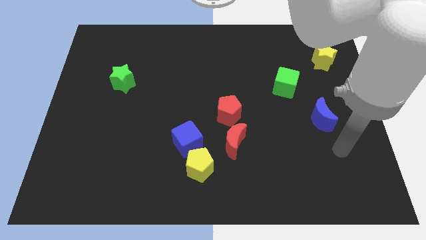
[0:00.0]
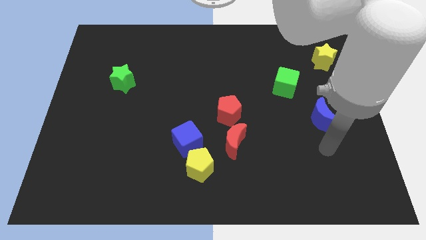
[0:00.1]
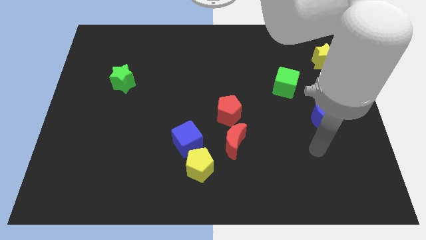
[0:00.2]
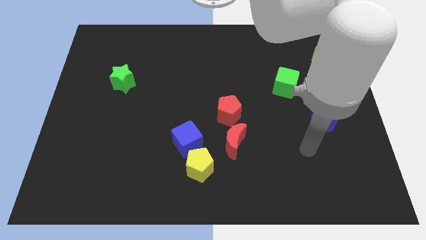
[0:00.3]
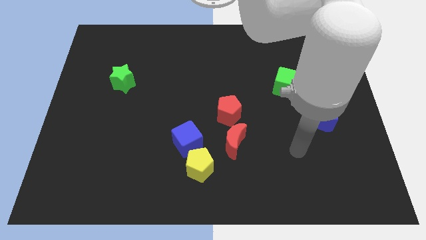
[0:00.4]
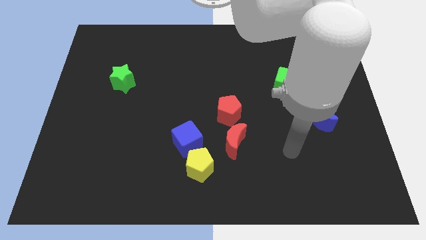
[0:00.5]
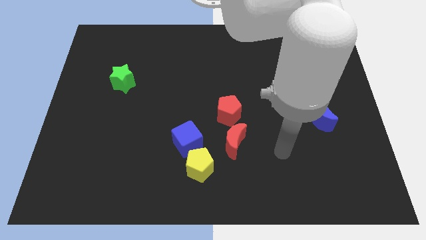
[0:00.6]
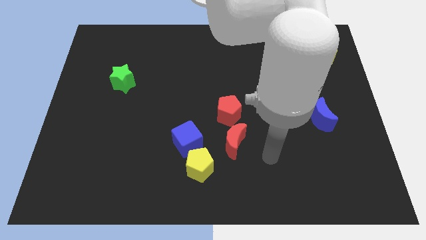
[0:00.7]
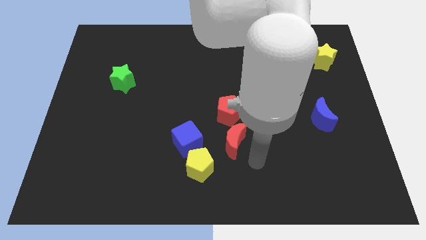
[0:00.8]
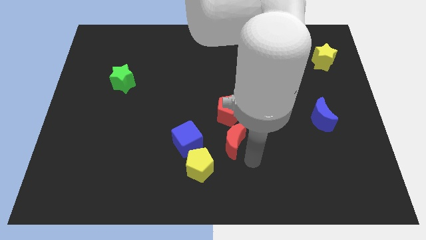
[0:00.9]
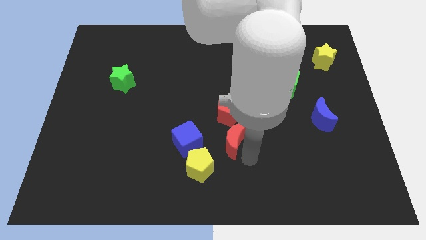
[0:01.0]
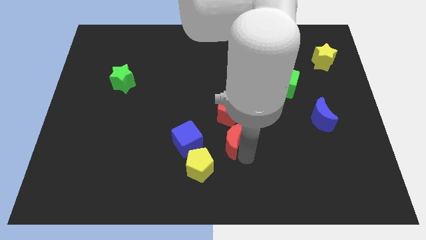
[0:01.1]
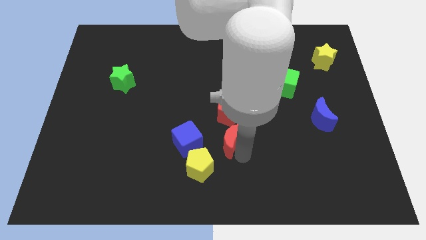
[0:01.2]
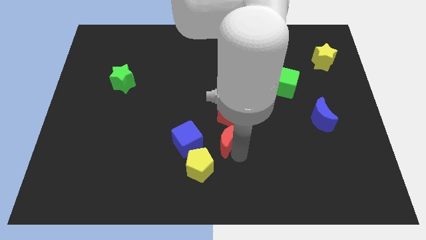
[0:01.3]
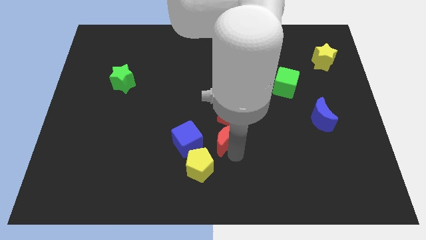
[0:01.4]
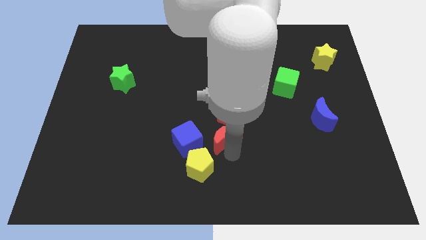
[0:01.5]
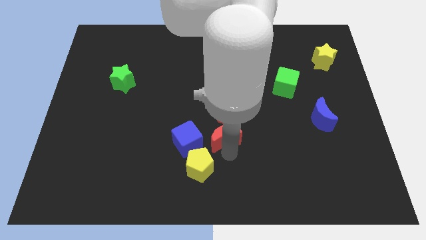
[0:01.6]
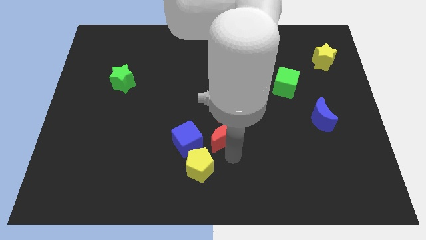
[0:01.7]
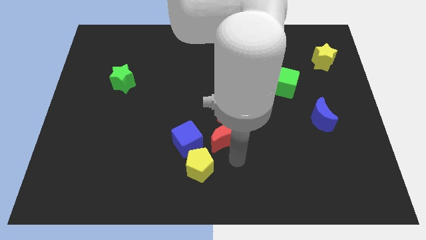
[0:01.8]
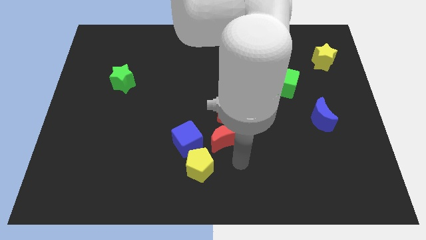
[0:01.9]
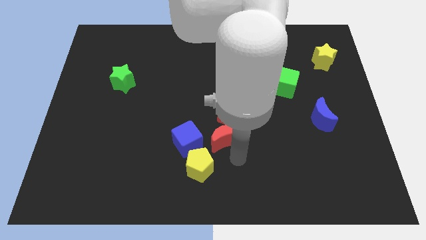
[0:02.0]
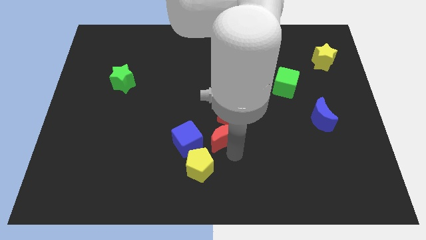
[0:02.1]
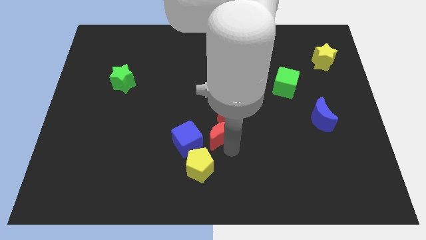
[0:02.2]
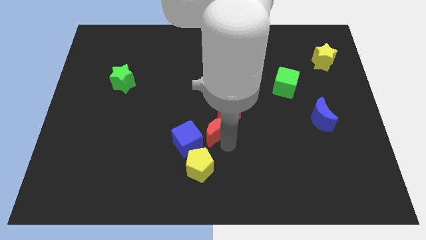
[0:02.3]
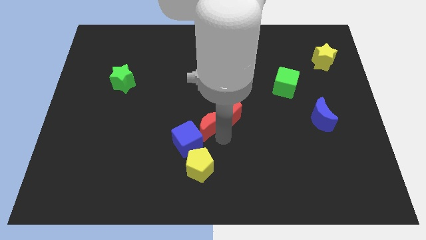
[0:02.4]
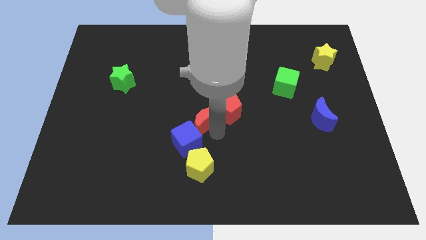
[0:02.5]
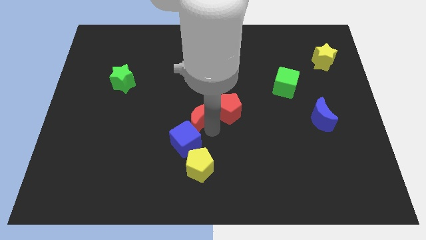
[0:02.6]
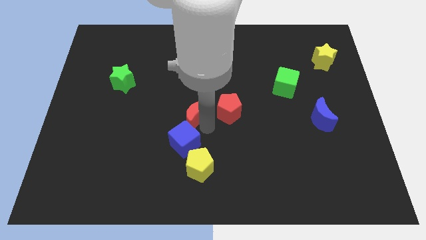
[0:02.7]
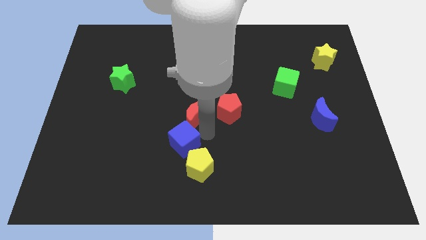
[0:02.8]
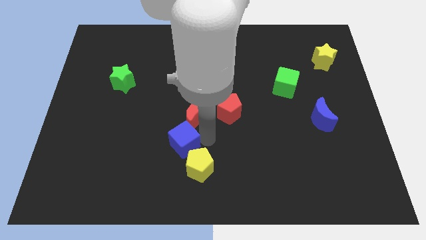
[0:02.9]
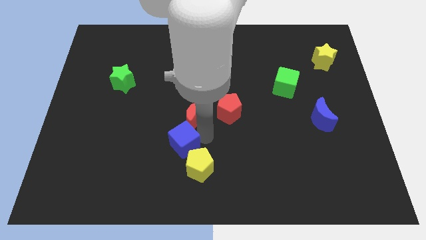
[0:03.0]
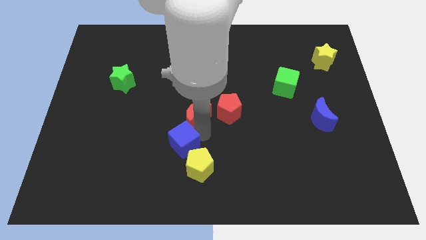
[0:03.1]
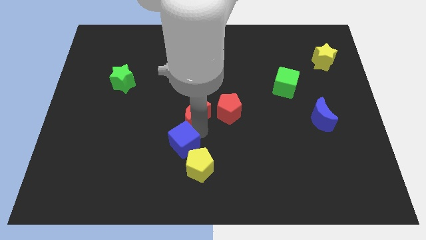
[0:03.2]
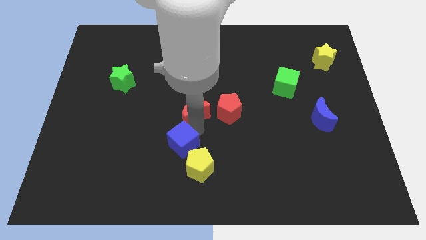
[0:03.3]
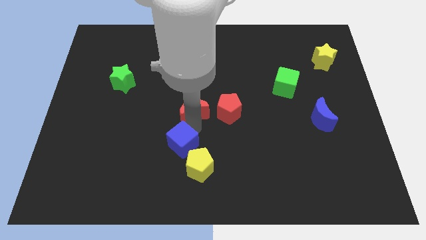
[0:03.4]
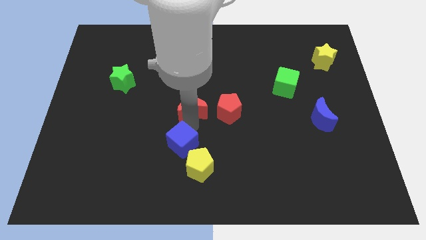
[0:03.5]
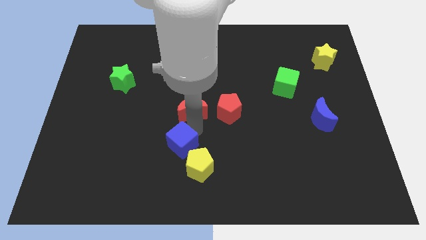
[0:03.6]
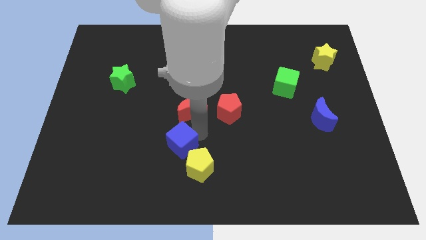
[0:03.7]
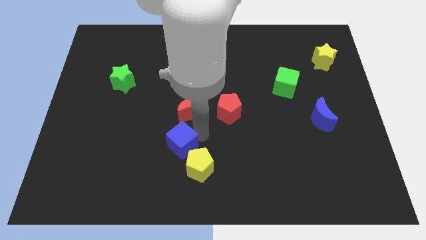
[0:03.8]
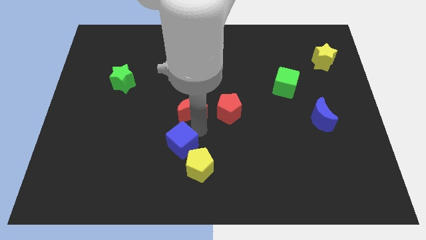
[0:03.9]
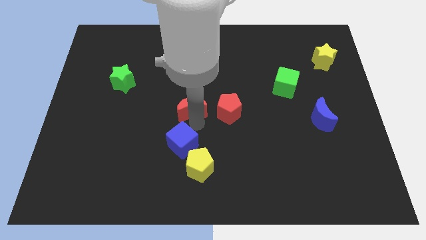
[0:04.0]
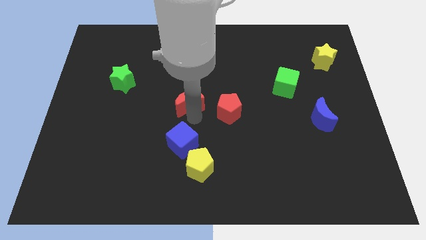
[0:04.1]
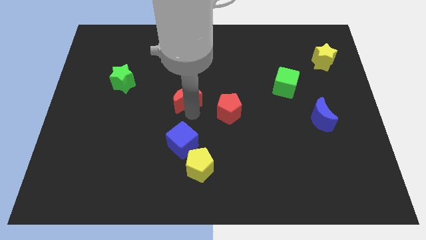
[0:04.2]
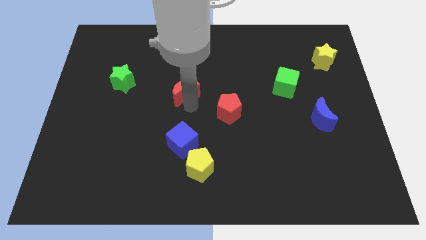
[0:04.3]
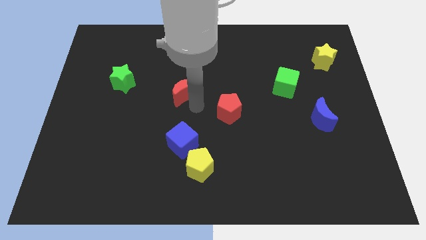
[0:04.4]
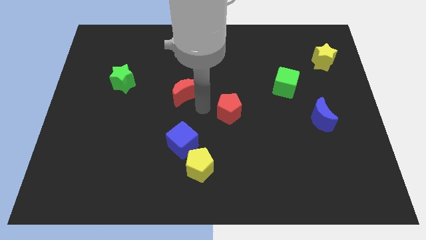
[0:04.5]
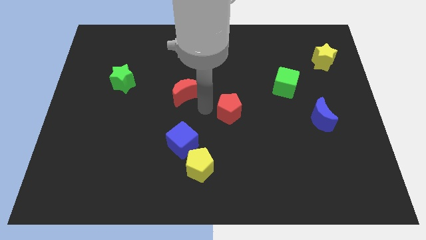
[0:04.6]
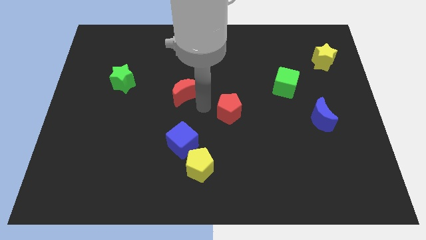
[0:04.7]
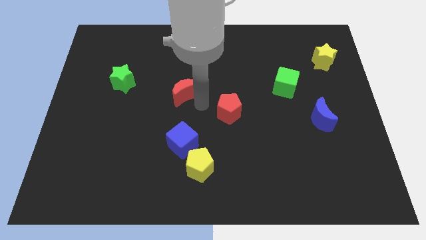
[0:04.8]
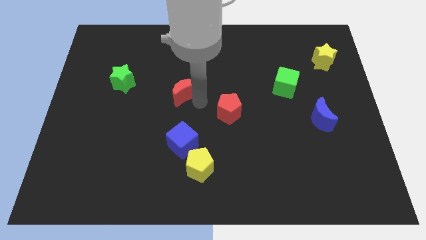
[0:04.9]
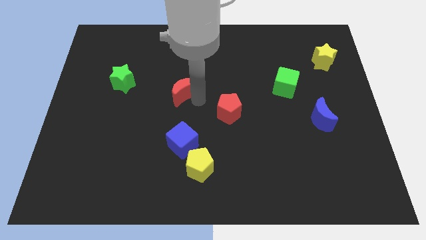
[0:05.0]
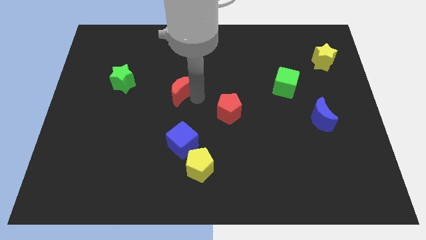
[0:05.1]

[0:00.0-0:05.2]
put the red moon right of the green star

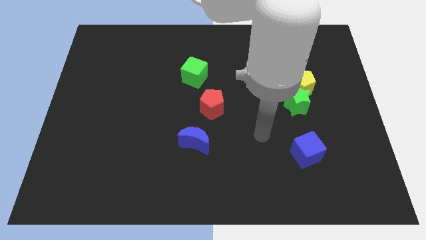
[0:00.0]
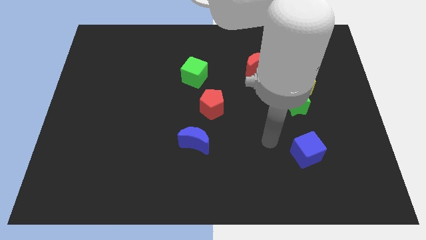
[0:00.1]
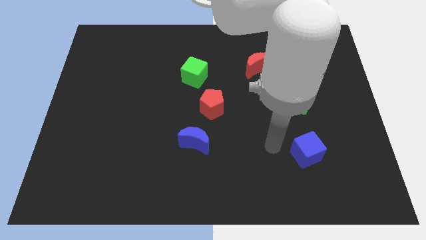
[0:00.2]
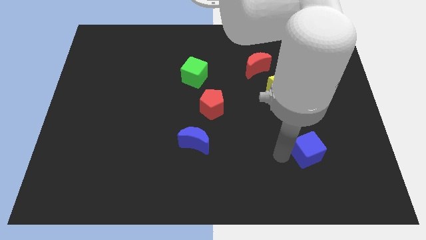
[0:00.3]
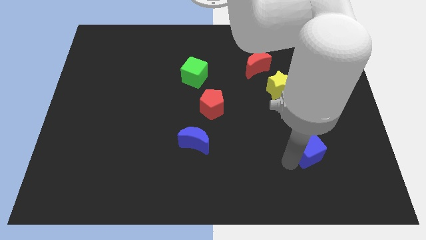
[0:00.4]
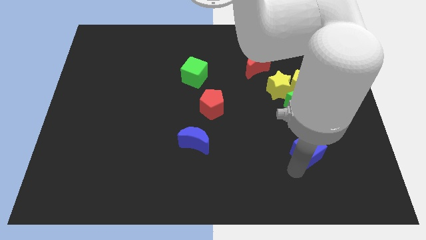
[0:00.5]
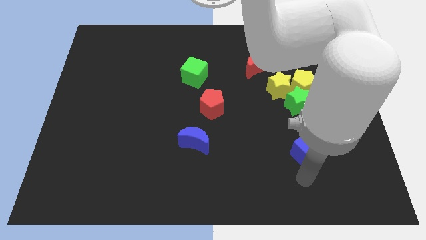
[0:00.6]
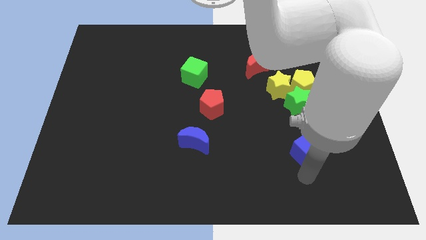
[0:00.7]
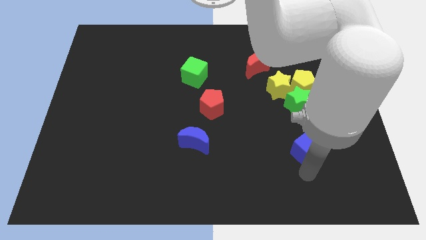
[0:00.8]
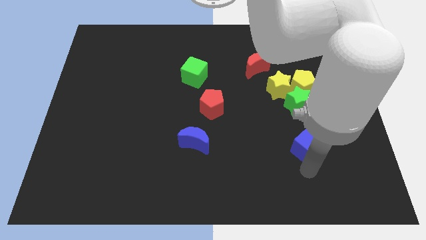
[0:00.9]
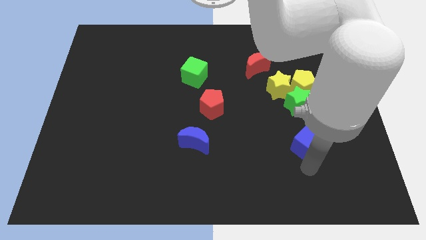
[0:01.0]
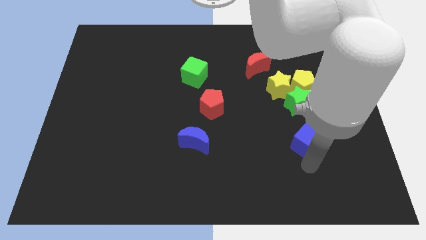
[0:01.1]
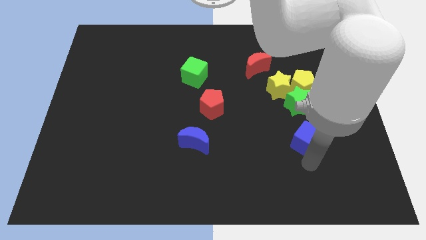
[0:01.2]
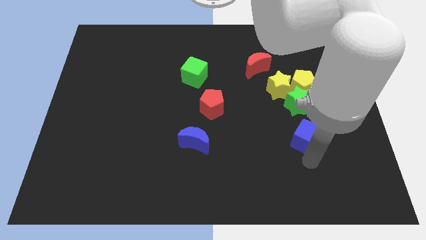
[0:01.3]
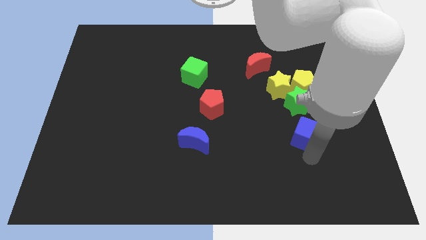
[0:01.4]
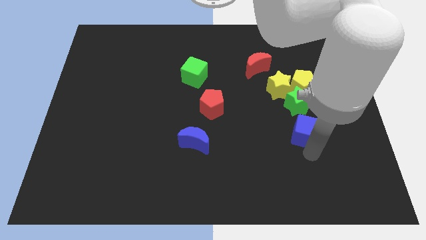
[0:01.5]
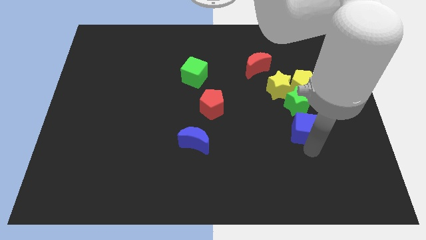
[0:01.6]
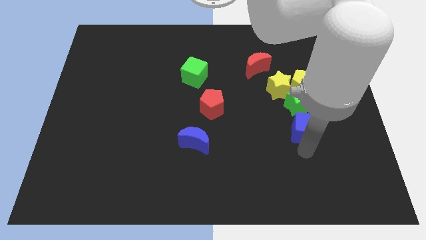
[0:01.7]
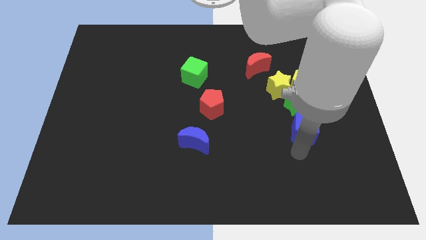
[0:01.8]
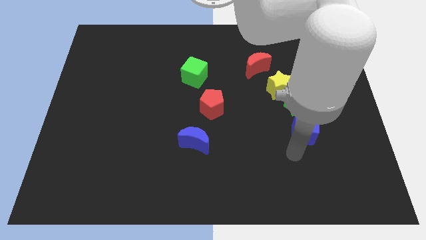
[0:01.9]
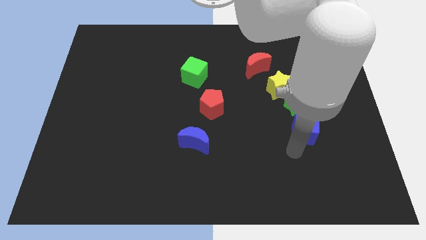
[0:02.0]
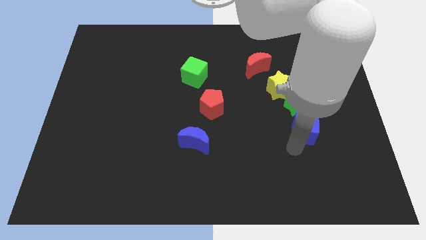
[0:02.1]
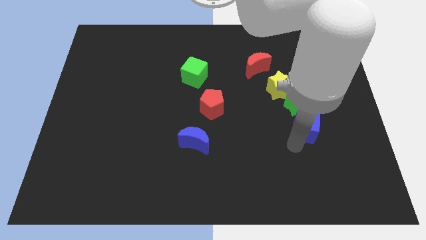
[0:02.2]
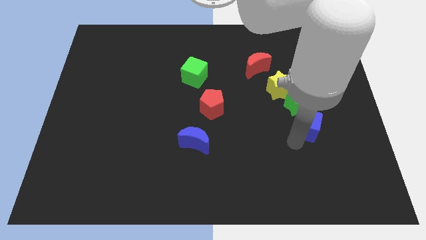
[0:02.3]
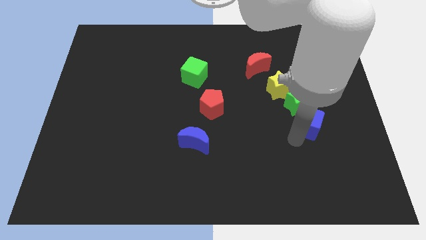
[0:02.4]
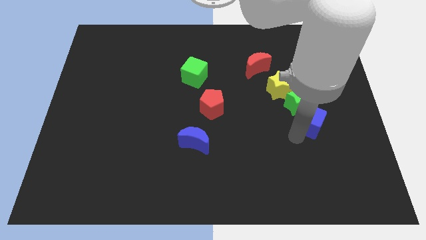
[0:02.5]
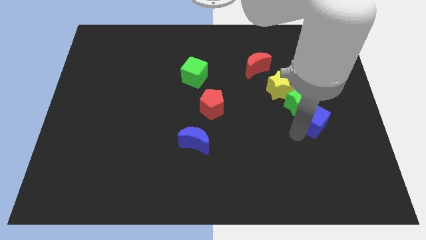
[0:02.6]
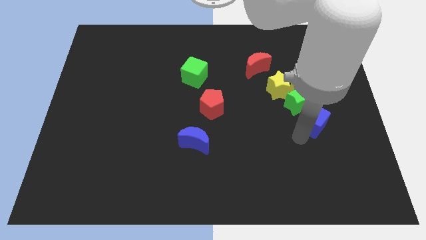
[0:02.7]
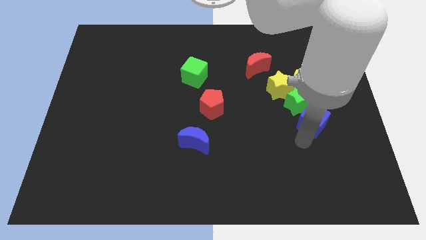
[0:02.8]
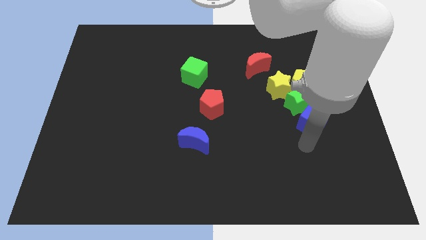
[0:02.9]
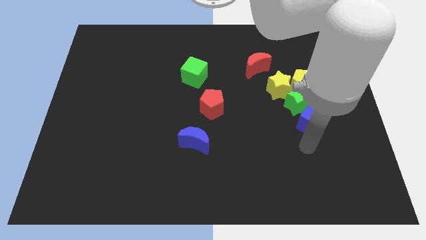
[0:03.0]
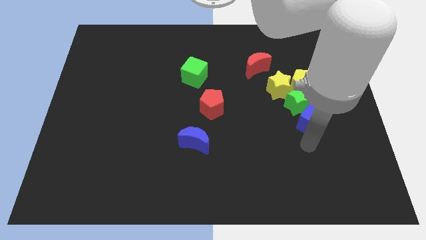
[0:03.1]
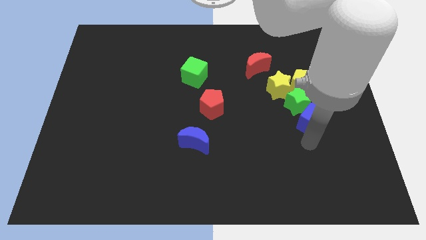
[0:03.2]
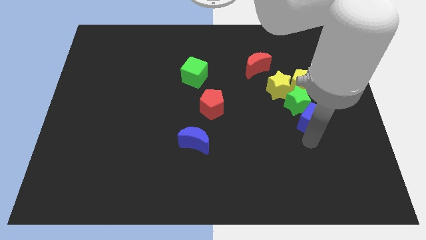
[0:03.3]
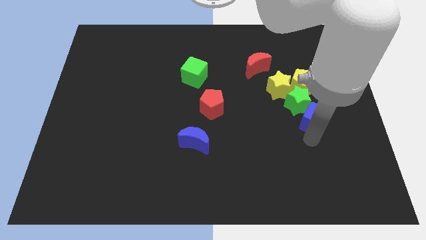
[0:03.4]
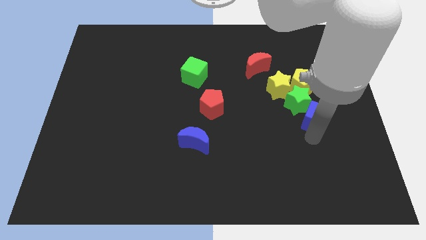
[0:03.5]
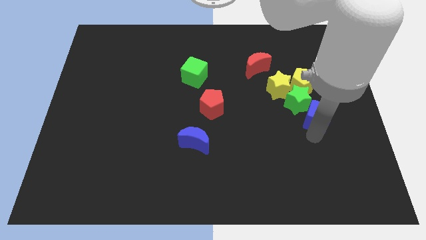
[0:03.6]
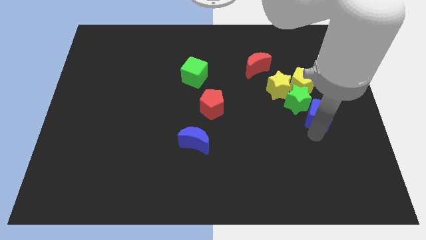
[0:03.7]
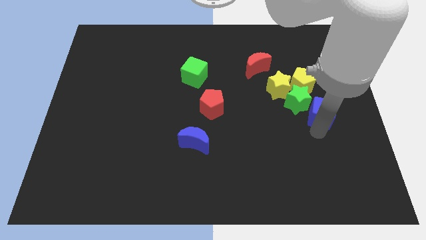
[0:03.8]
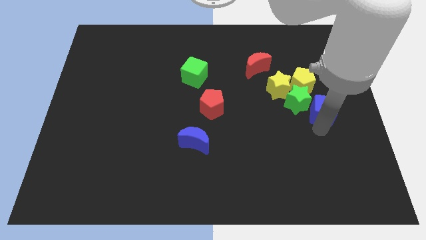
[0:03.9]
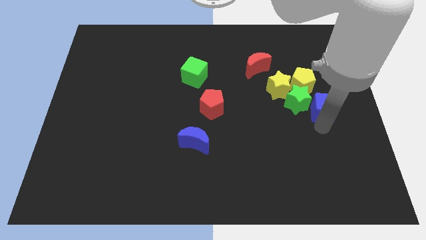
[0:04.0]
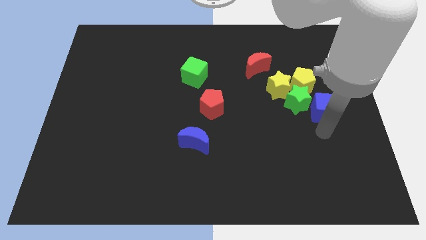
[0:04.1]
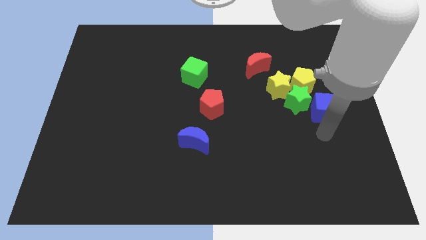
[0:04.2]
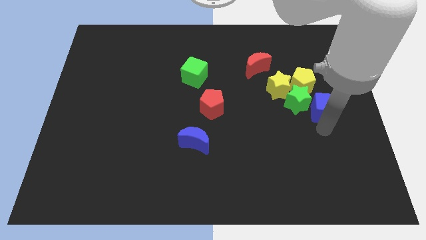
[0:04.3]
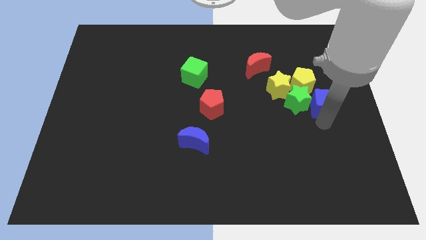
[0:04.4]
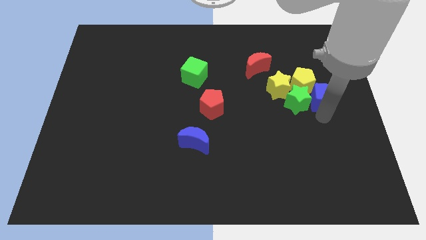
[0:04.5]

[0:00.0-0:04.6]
move the blue cube to the right side of the yellow star
